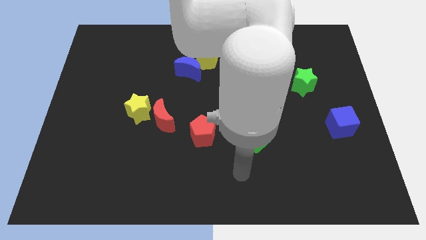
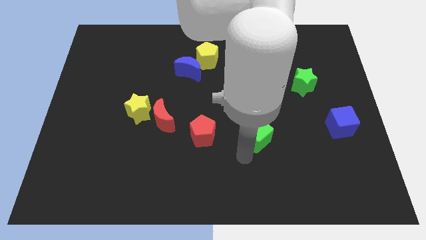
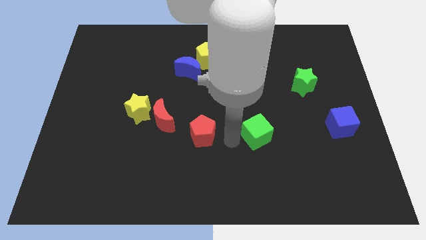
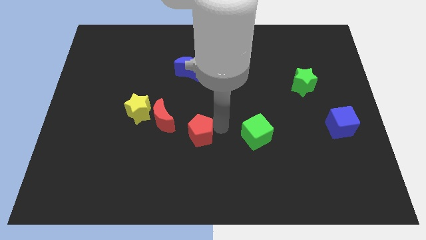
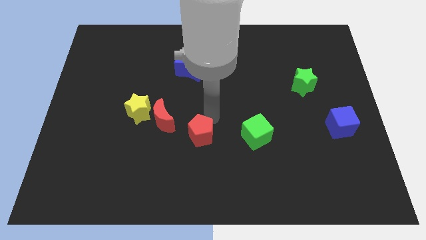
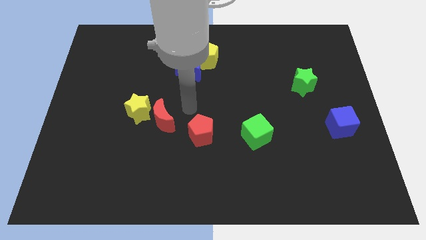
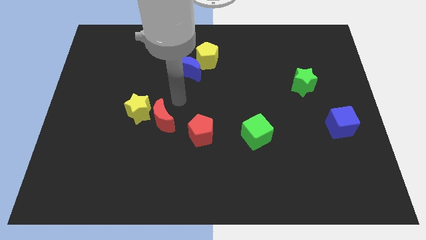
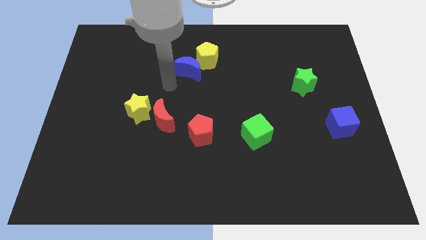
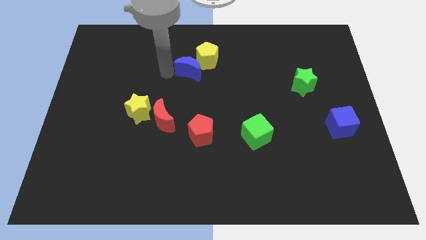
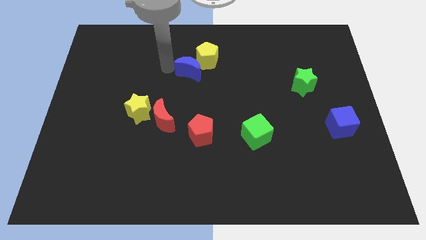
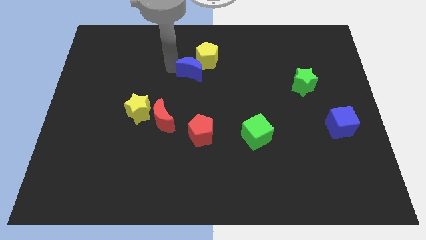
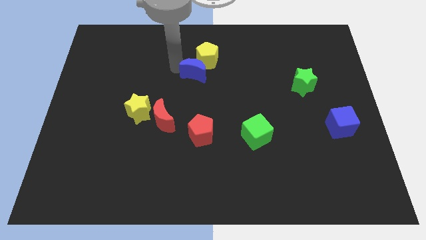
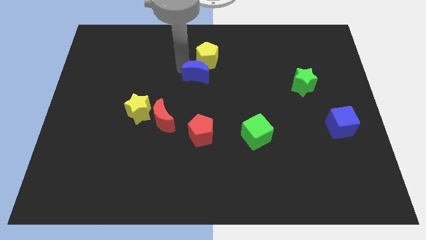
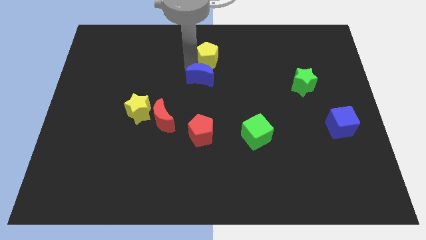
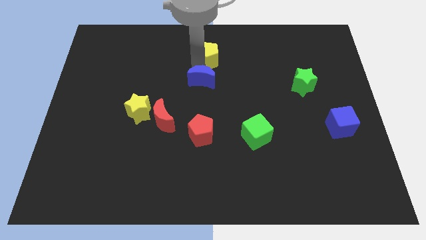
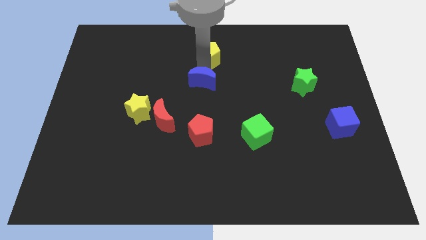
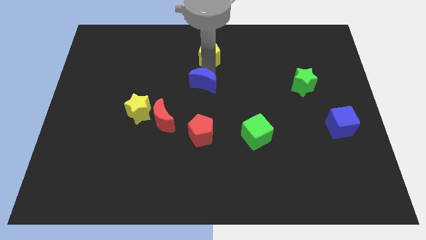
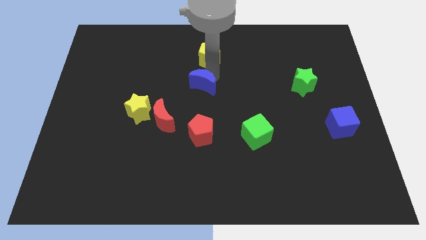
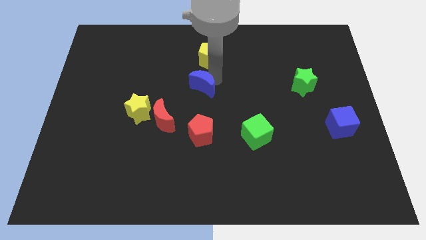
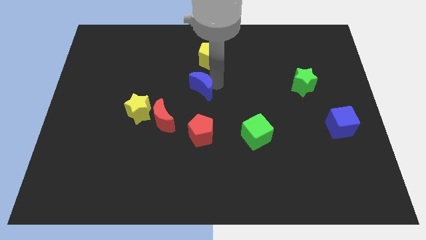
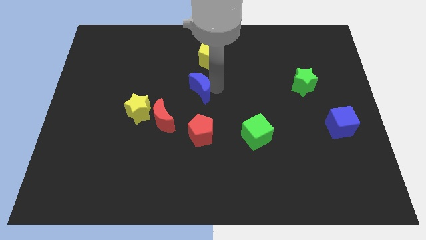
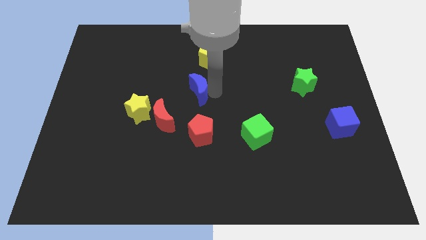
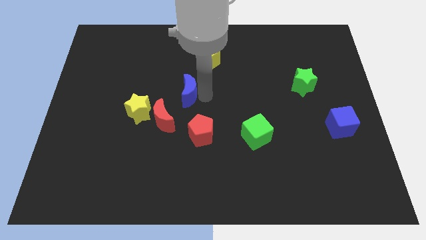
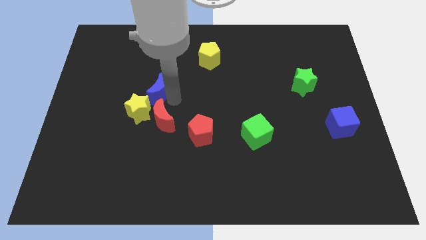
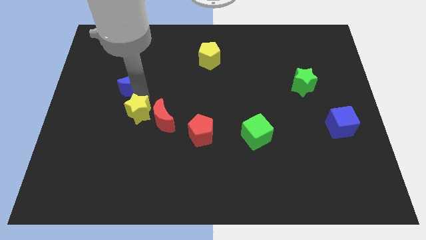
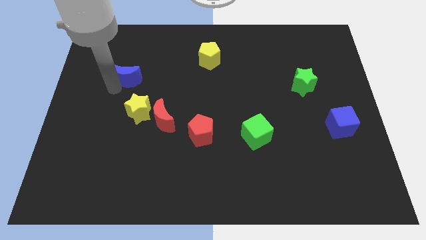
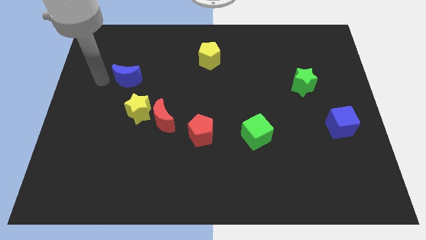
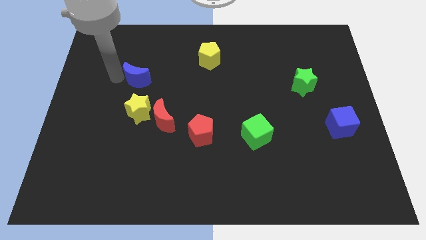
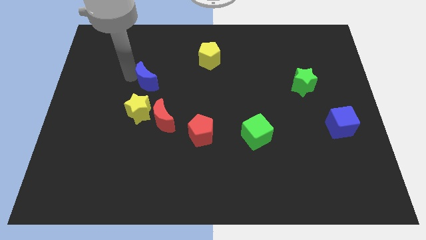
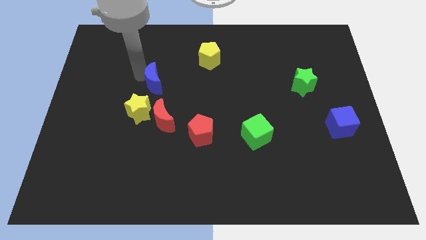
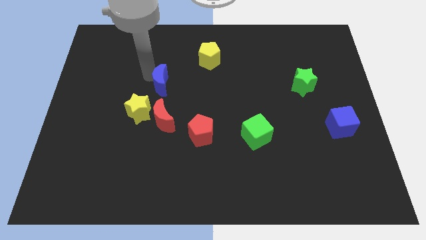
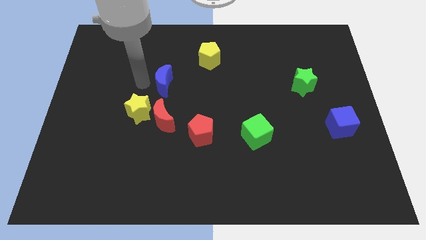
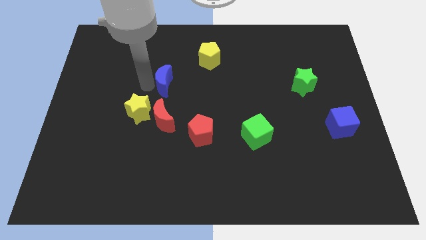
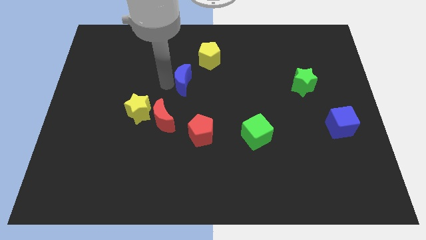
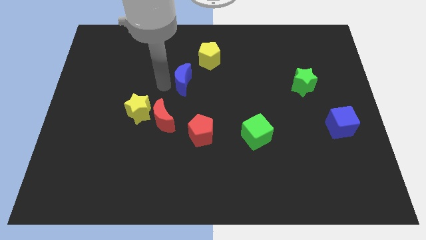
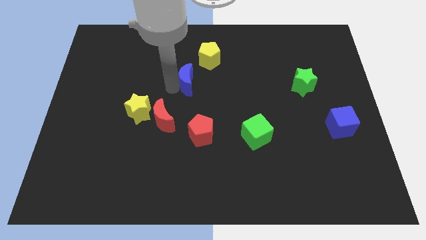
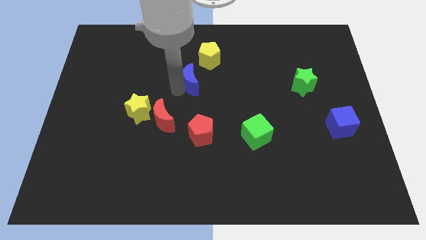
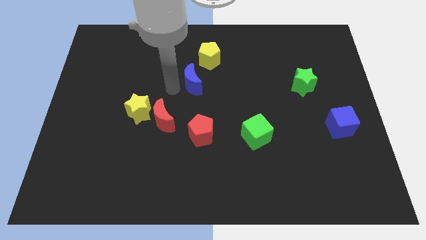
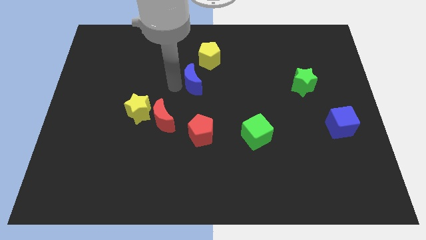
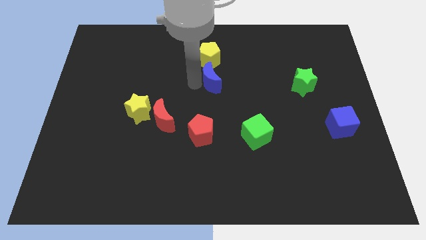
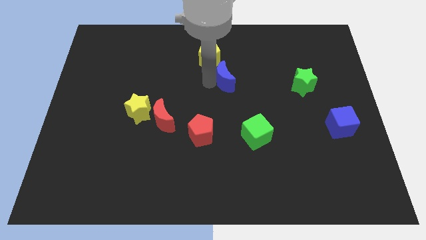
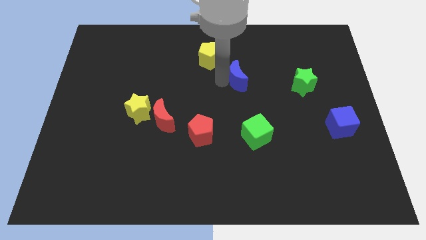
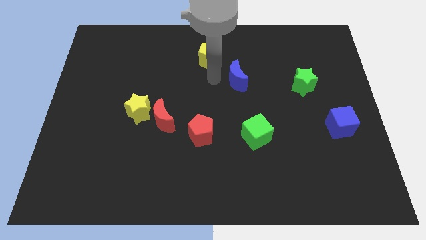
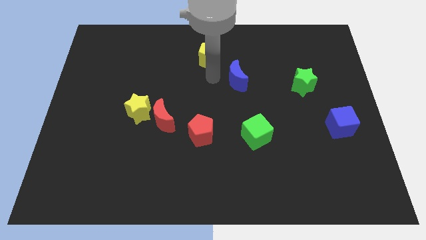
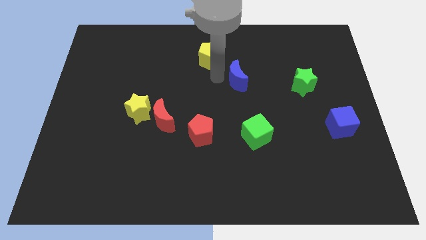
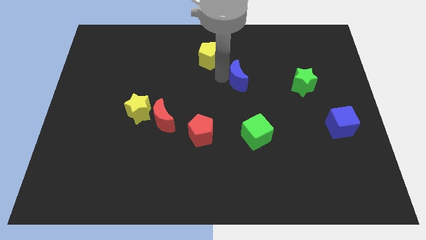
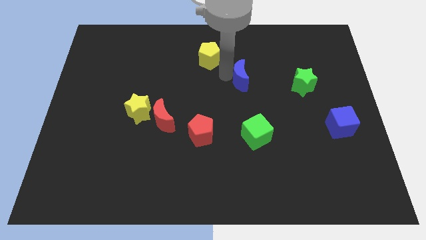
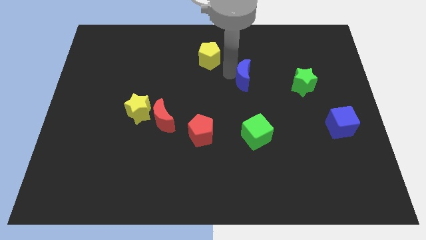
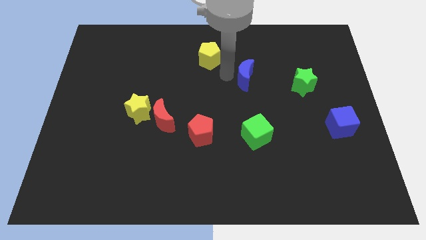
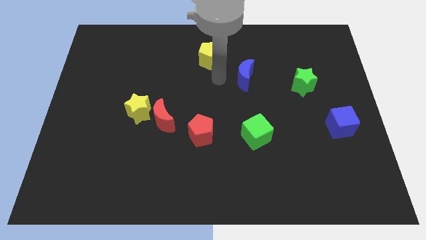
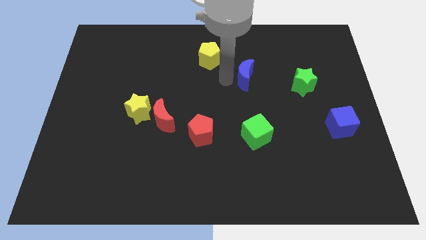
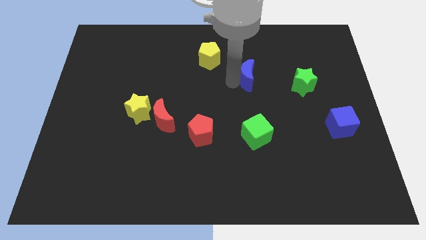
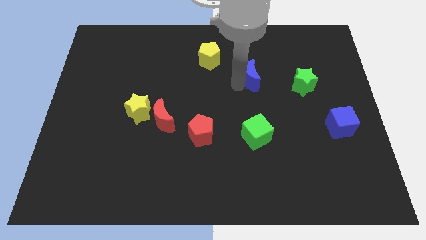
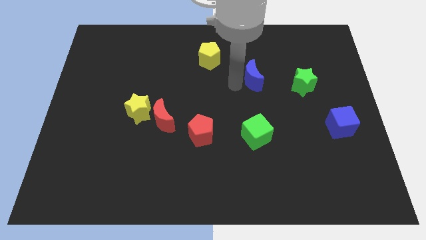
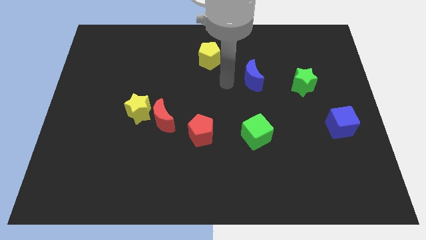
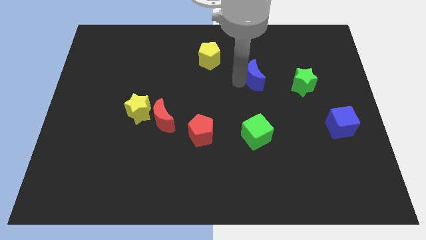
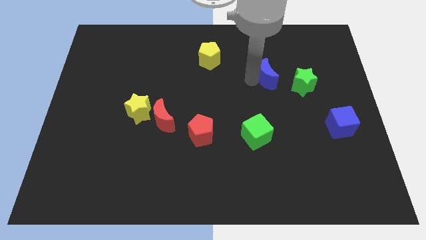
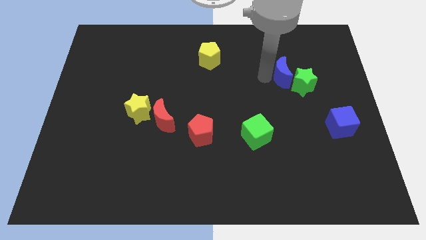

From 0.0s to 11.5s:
move the blue moon next to the green star

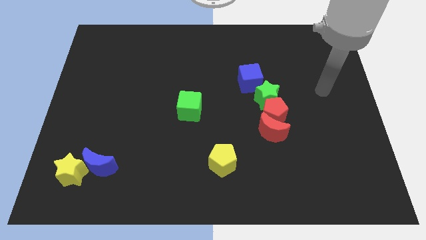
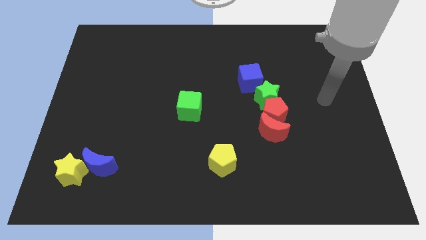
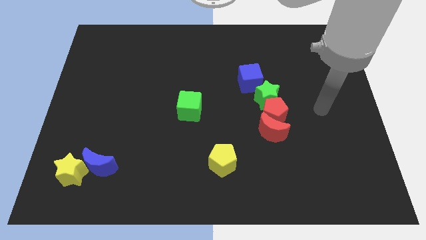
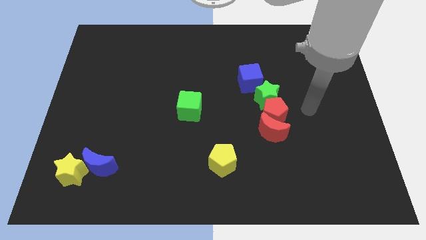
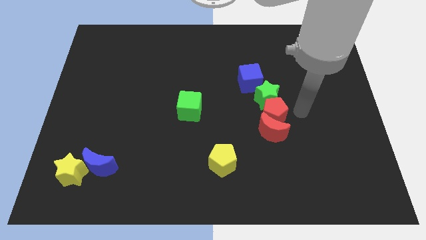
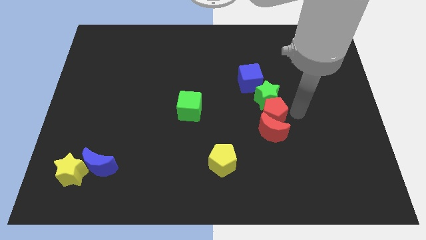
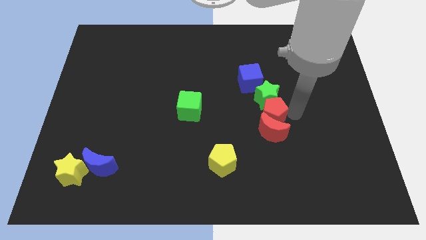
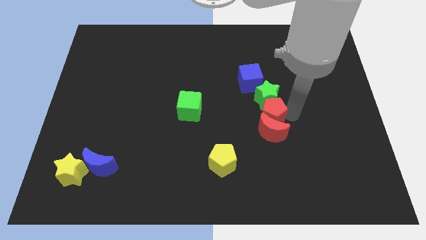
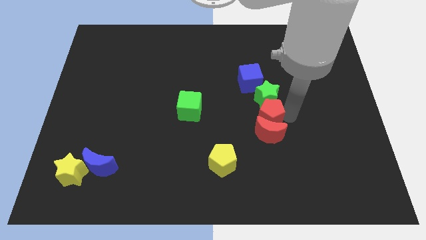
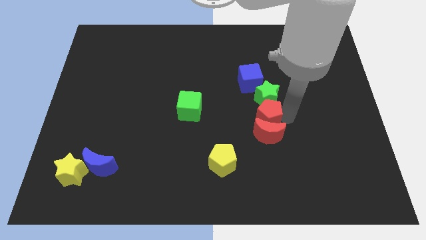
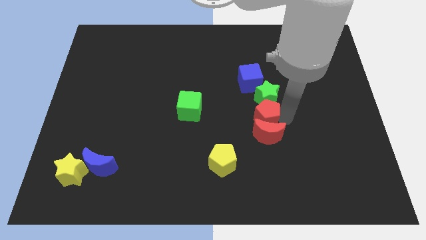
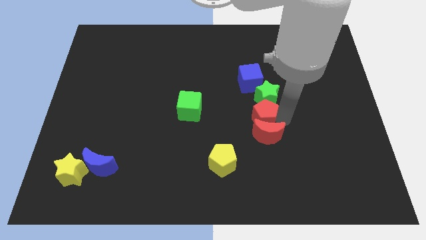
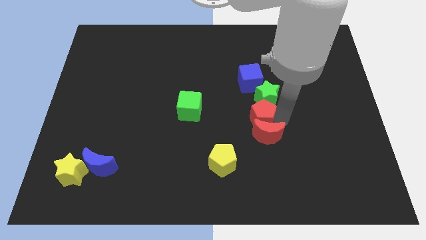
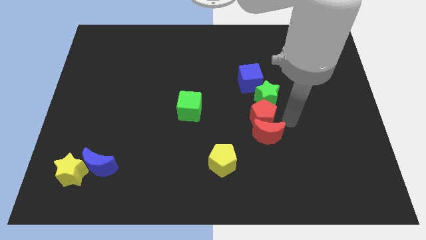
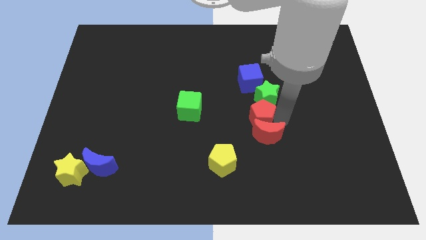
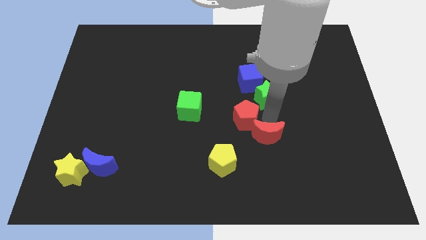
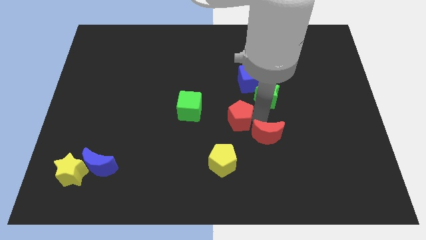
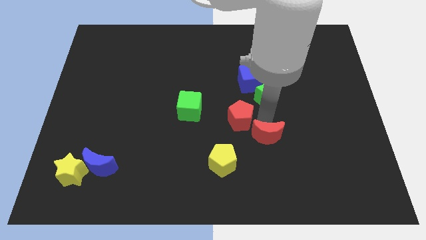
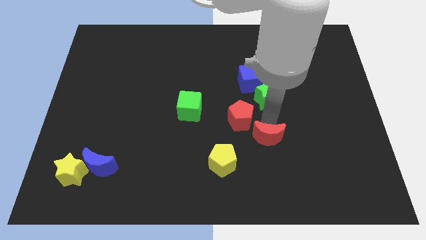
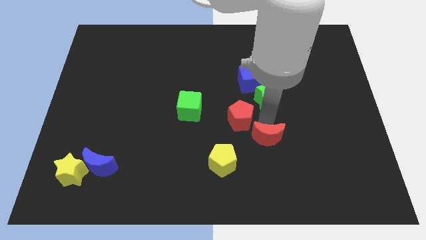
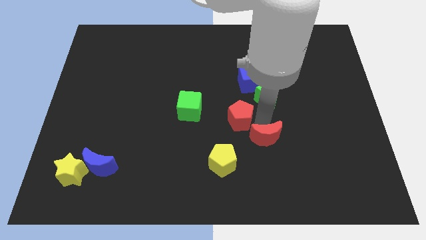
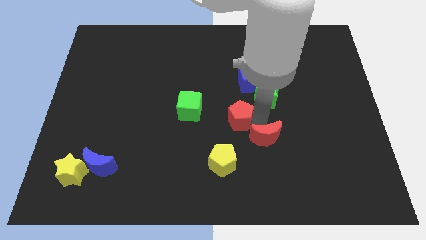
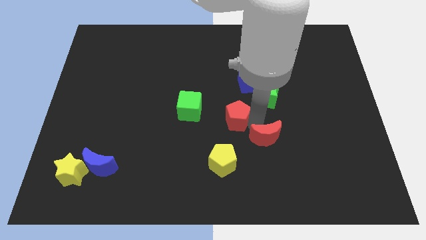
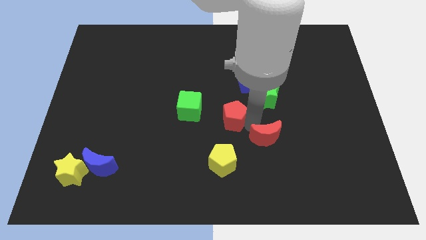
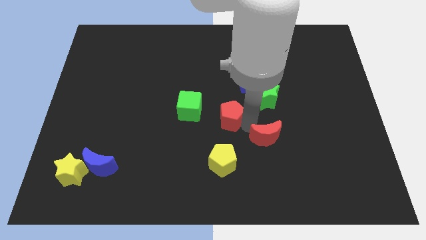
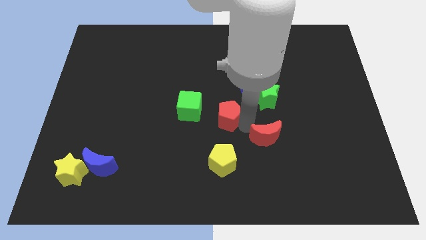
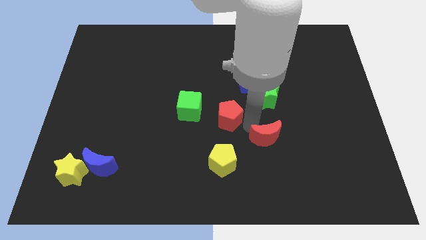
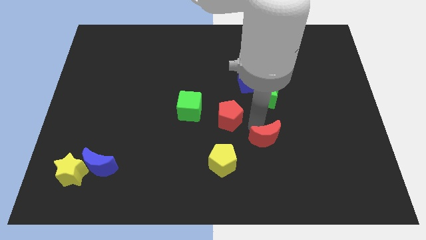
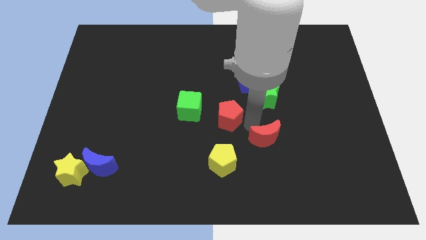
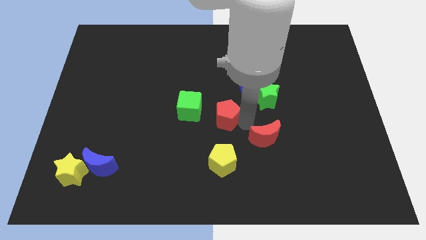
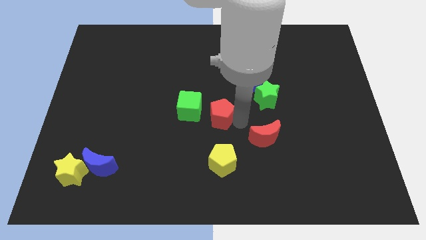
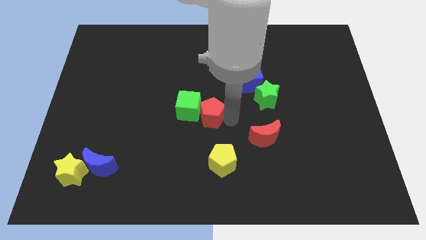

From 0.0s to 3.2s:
move the red pentagon towards the green cube
